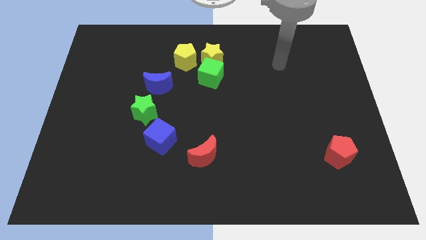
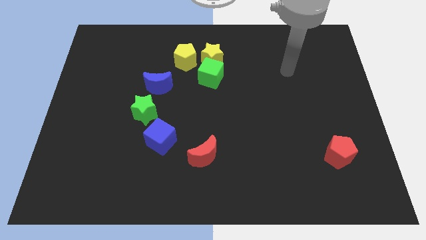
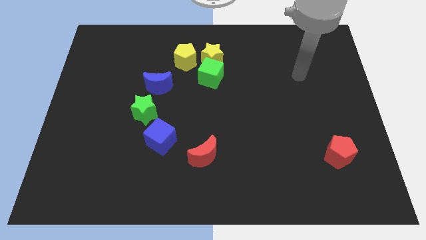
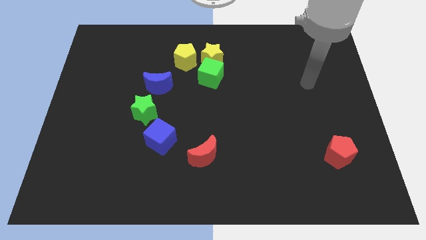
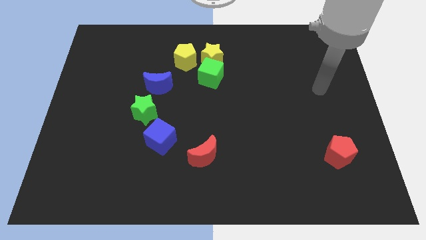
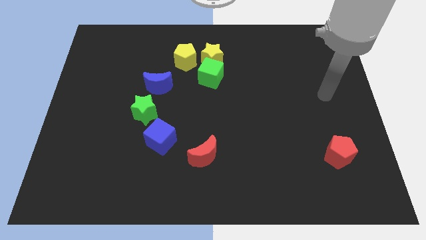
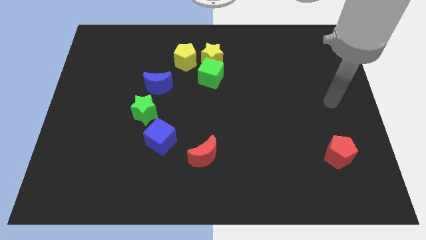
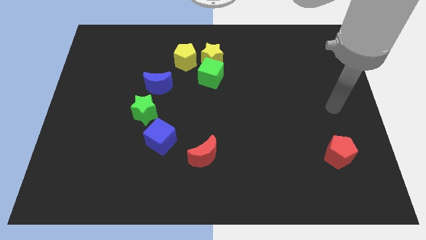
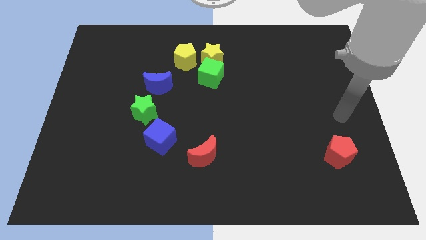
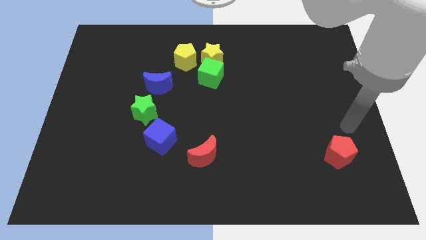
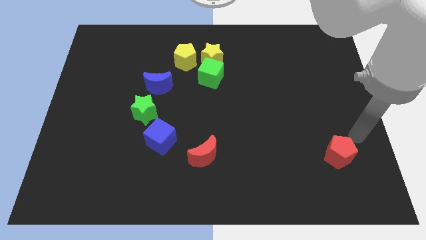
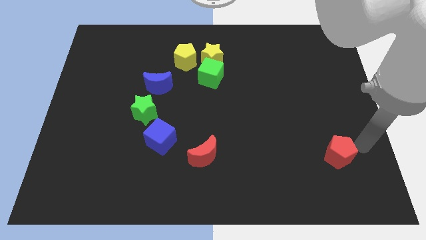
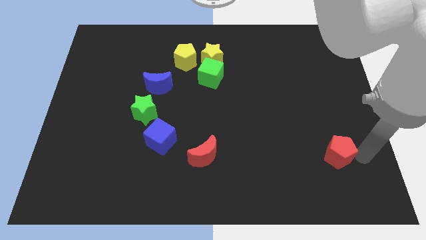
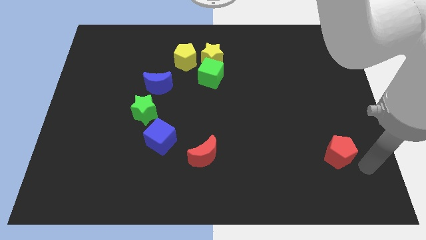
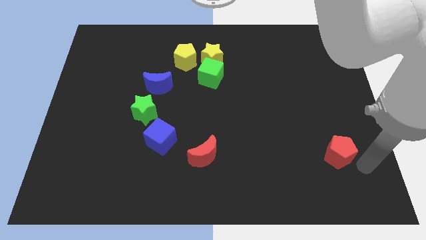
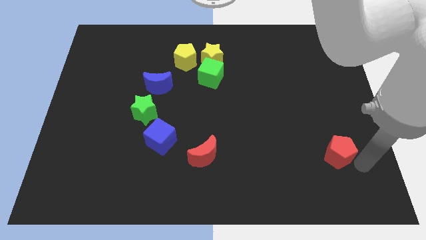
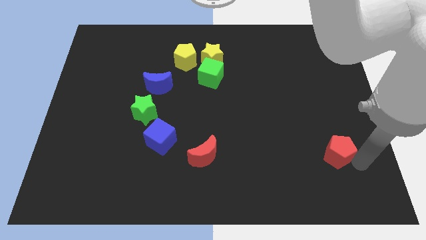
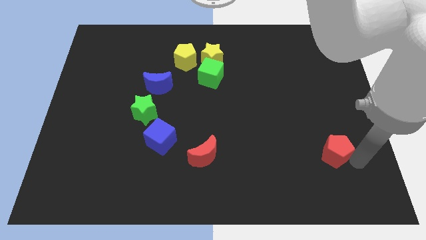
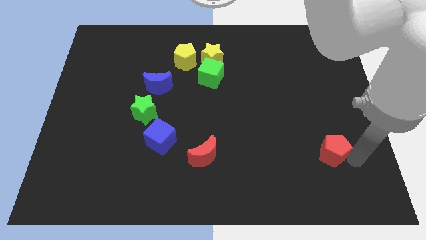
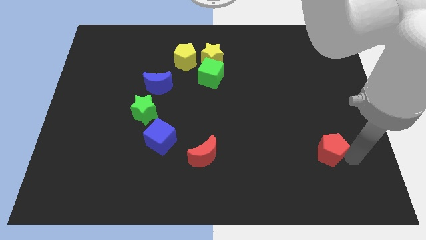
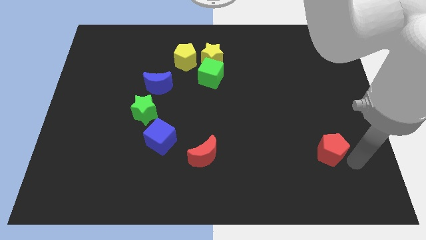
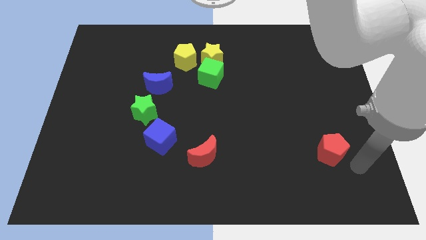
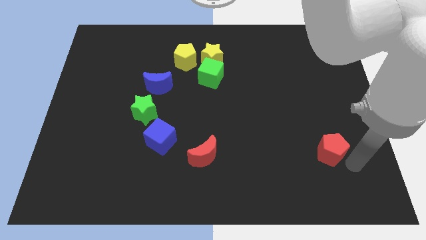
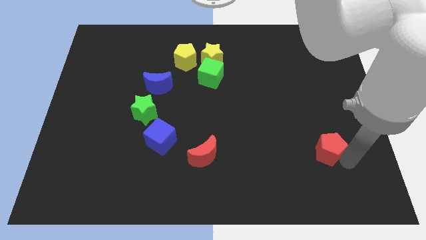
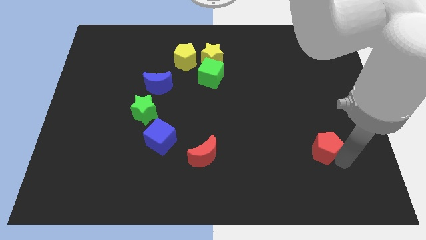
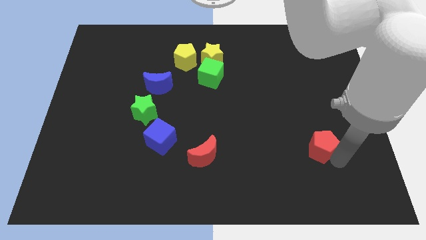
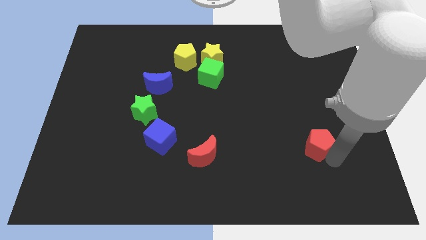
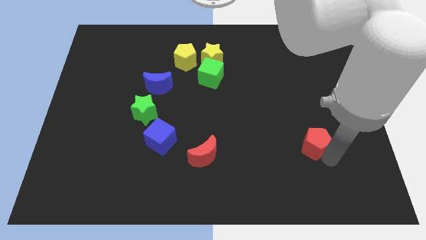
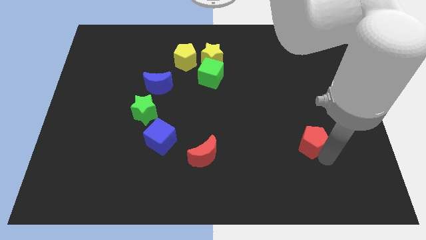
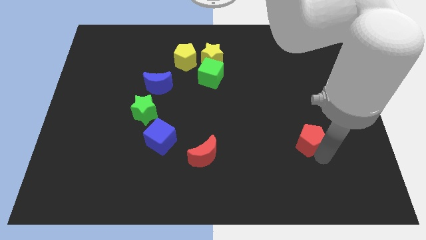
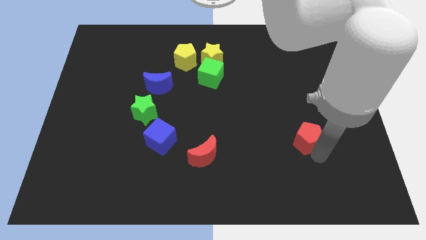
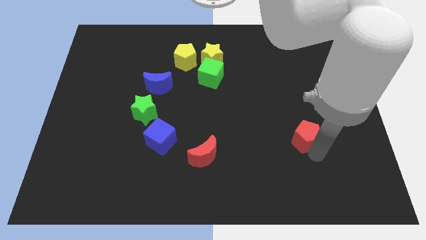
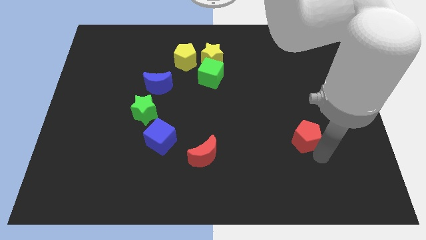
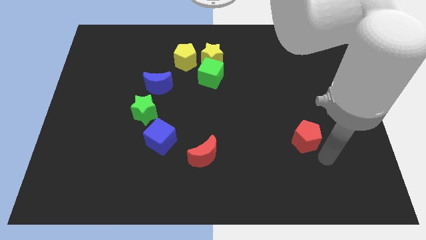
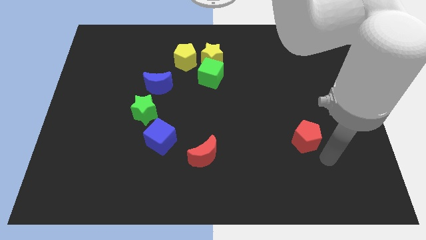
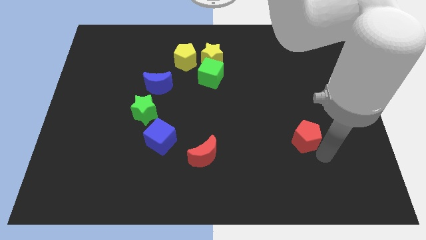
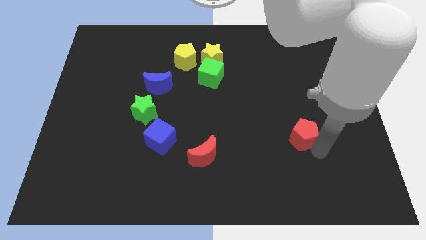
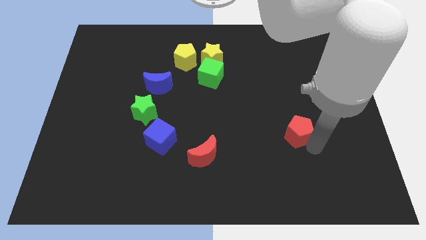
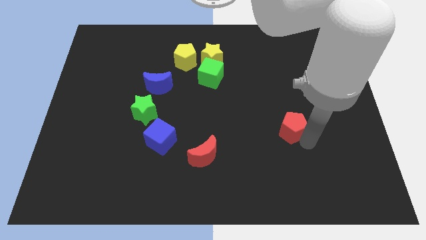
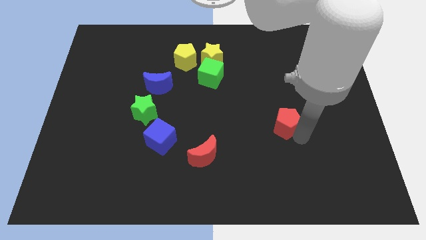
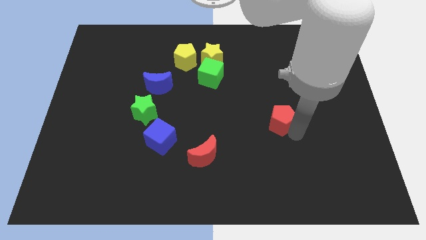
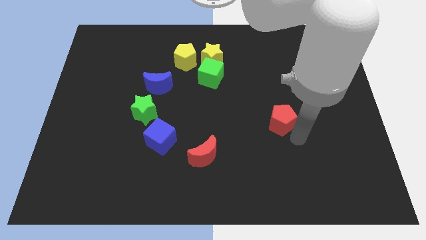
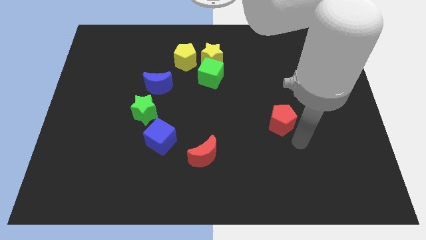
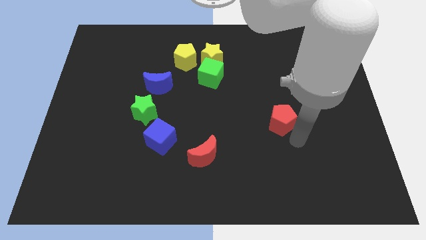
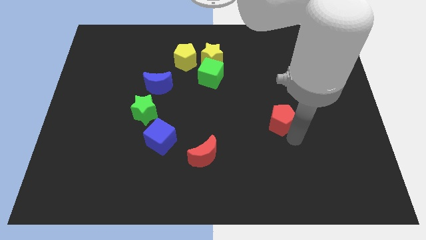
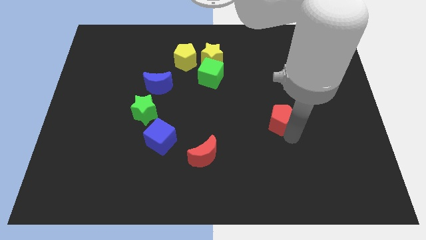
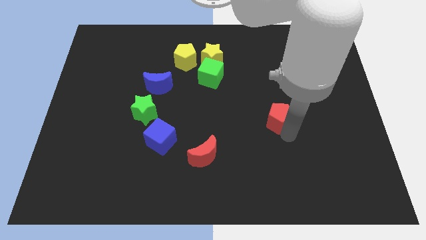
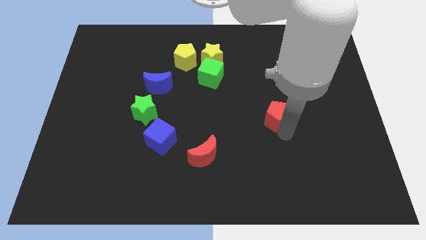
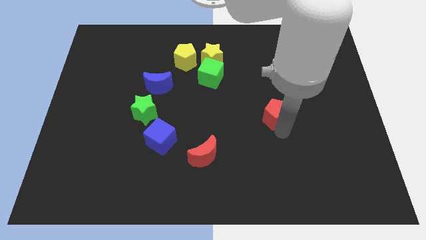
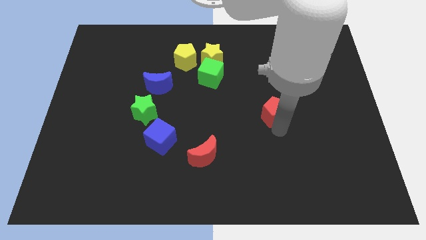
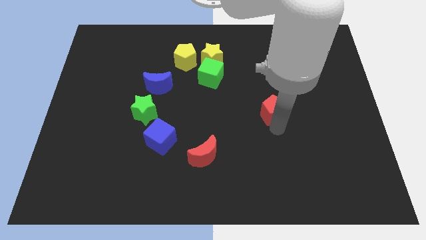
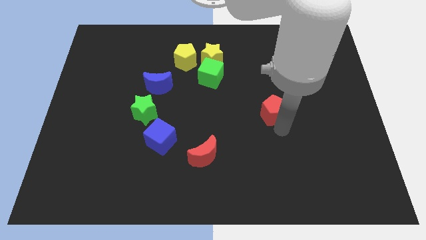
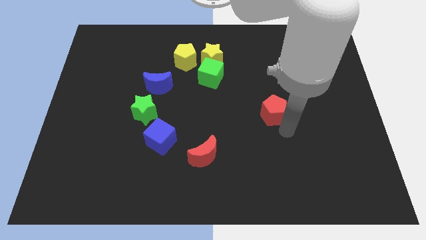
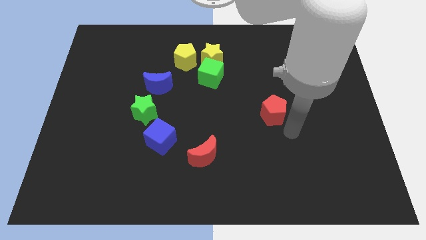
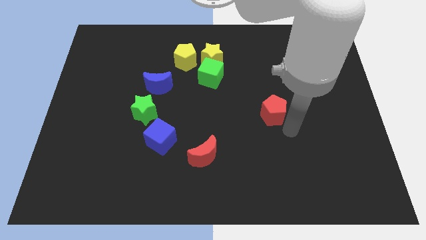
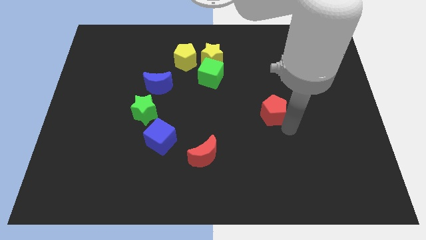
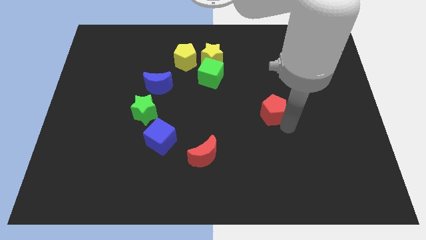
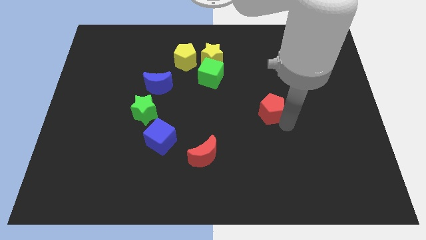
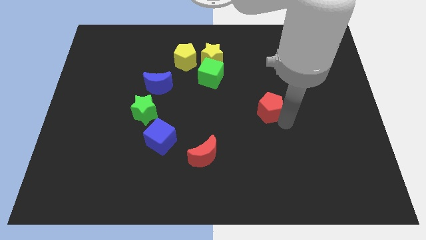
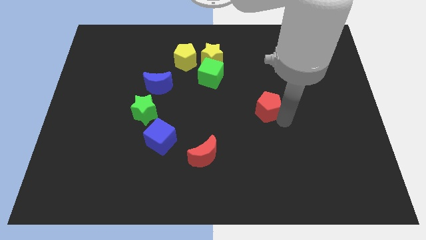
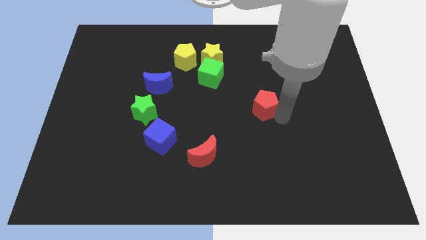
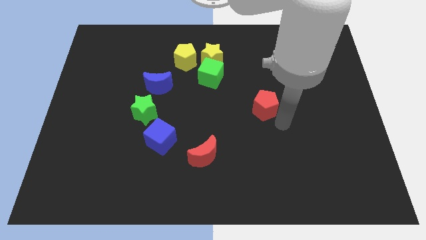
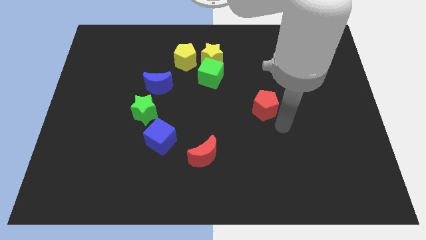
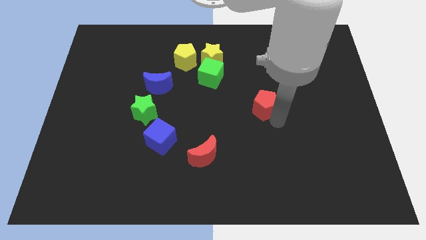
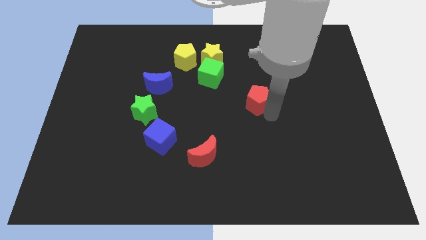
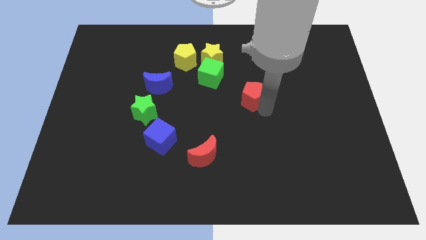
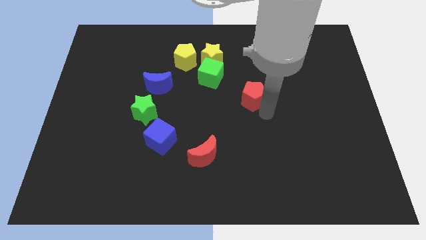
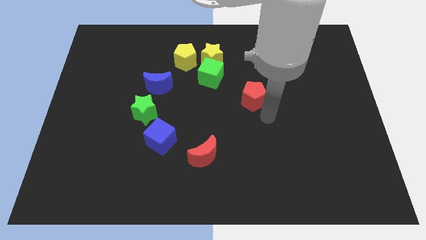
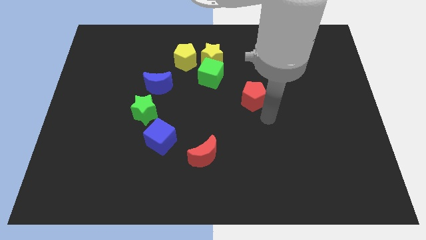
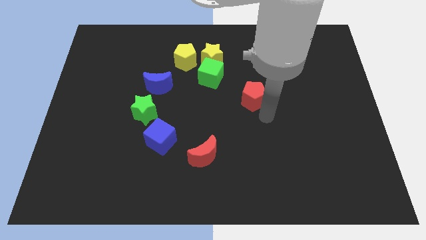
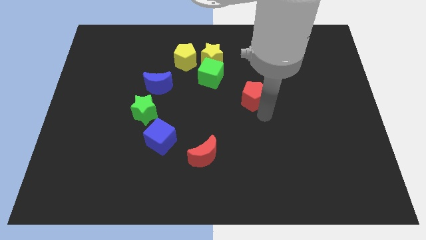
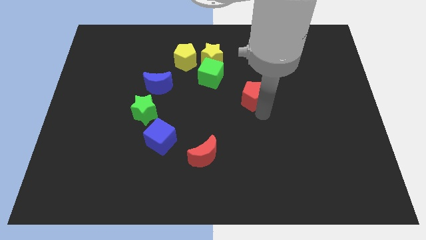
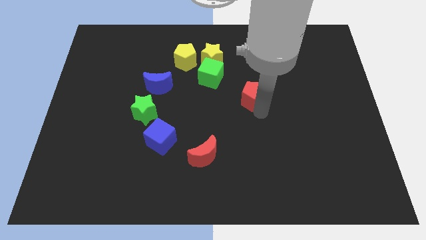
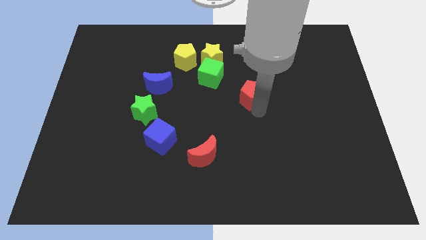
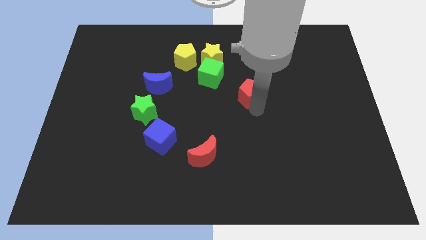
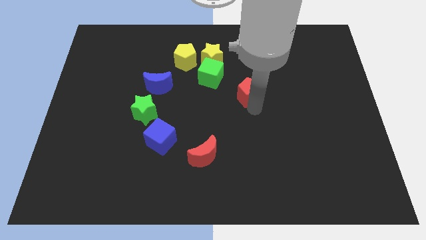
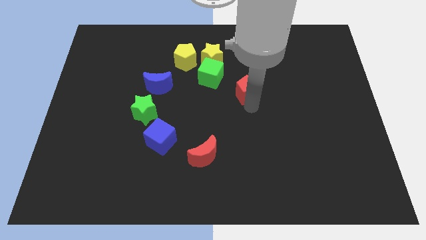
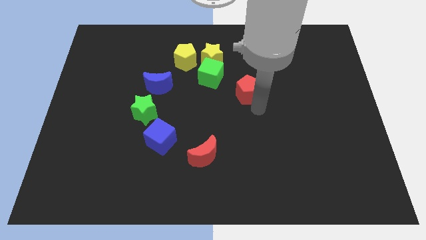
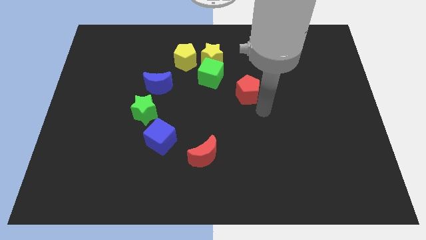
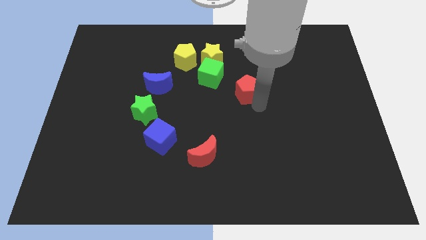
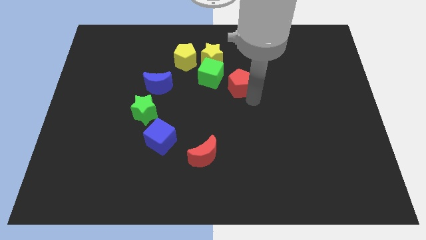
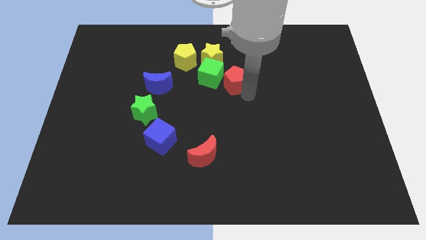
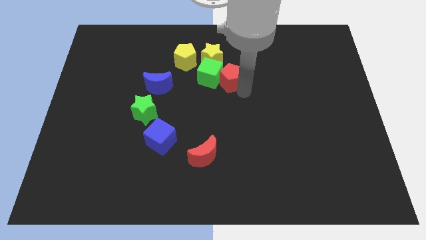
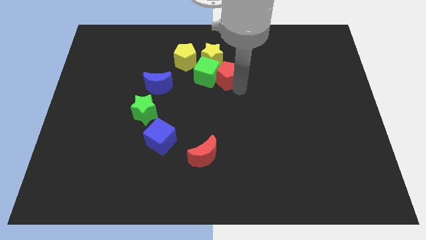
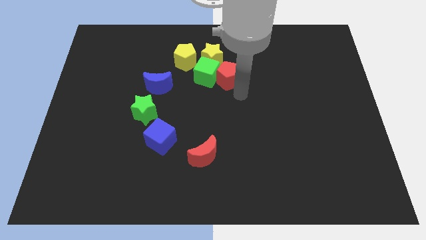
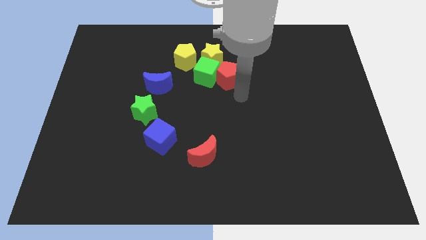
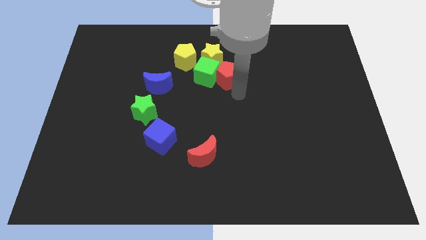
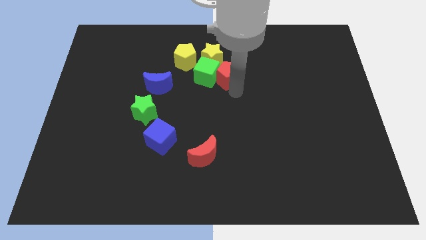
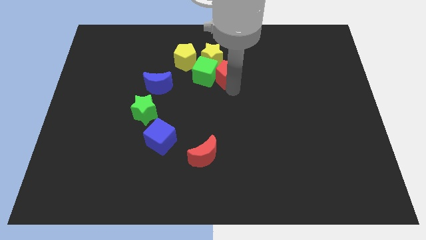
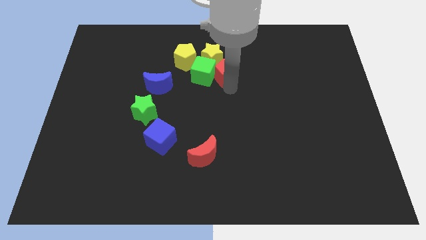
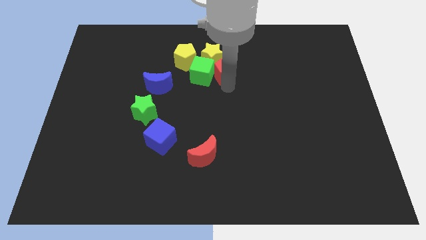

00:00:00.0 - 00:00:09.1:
put the red pentagon close to the yellow star
